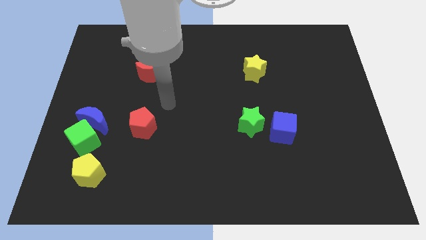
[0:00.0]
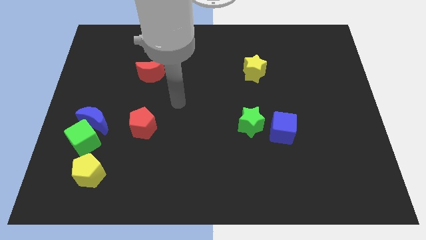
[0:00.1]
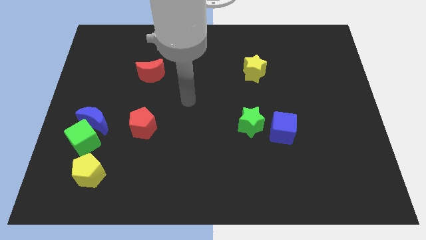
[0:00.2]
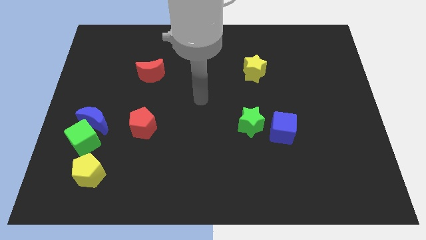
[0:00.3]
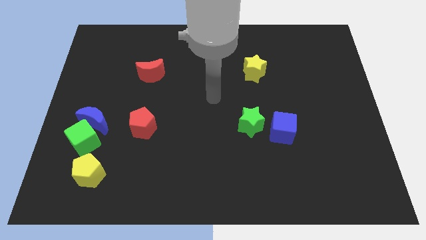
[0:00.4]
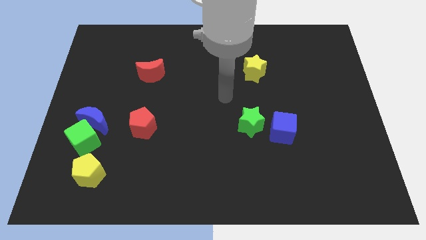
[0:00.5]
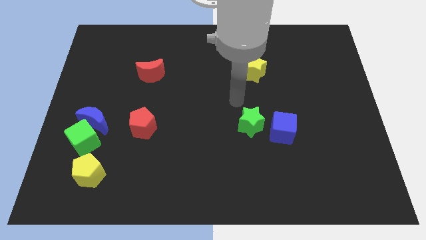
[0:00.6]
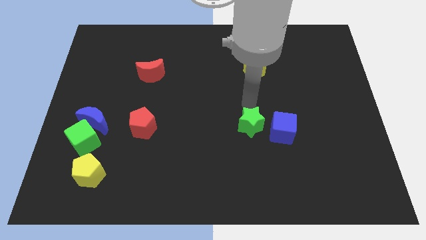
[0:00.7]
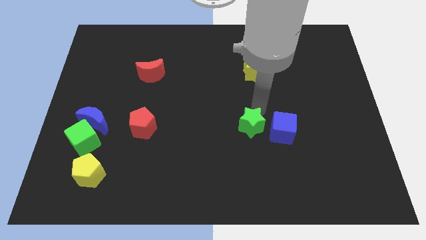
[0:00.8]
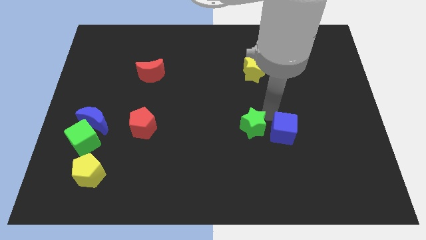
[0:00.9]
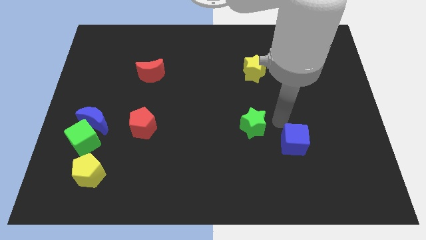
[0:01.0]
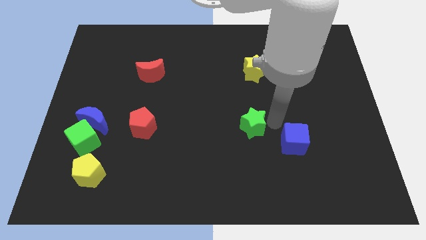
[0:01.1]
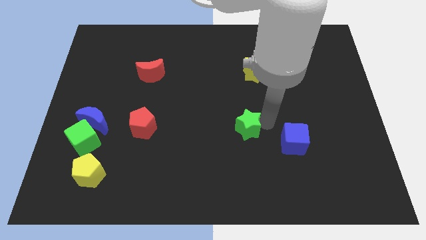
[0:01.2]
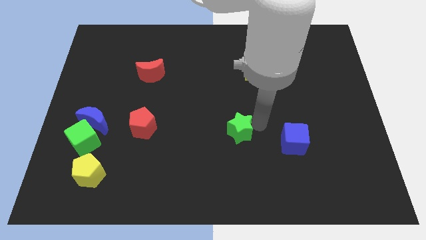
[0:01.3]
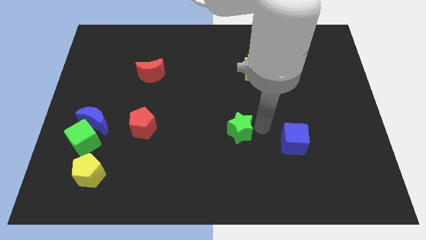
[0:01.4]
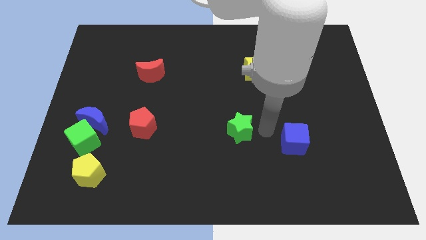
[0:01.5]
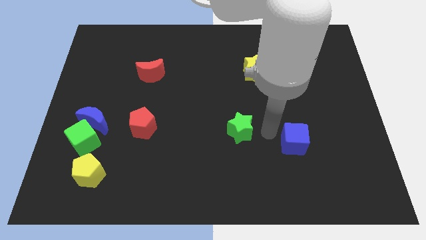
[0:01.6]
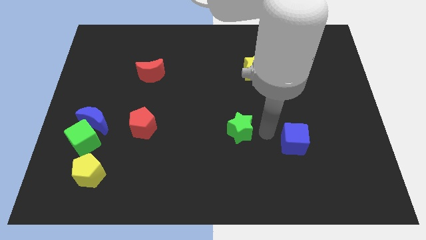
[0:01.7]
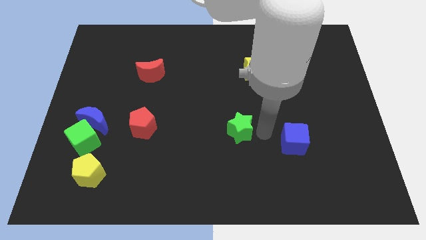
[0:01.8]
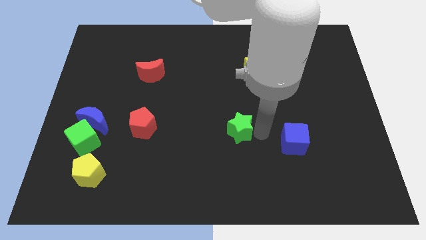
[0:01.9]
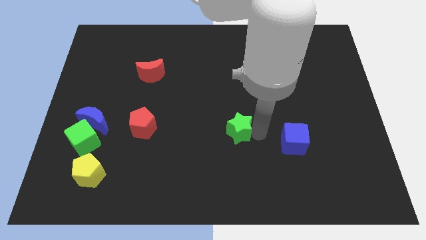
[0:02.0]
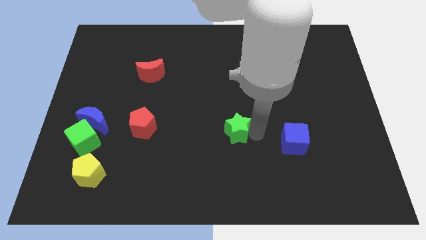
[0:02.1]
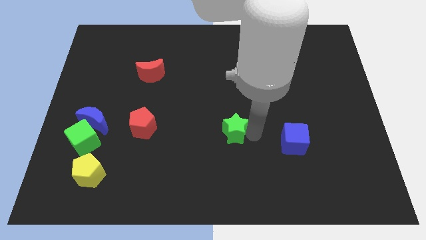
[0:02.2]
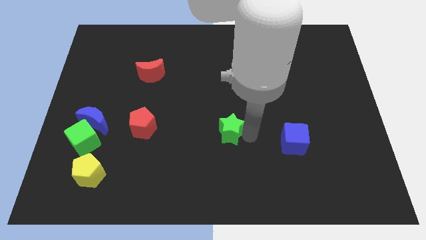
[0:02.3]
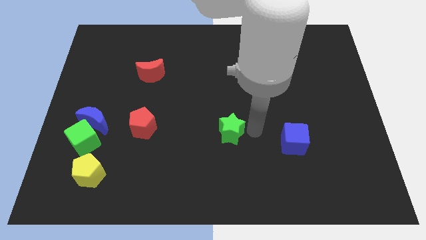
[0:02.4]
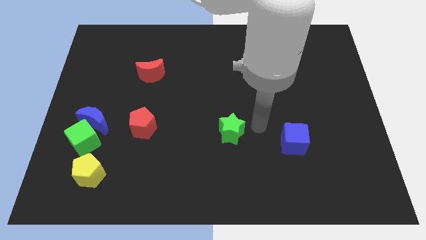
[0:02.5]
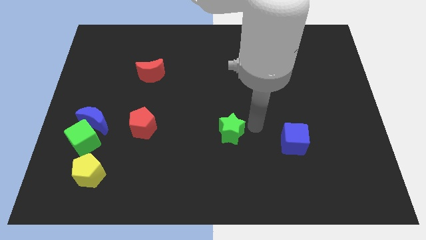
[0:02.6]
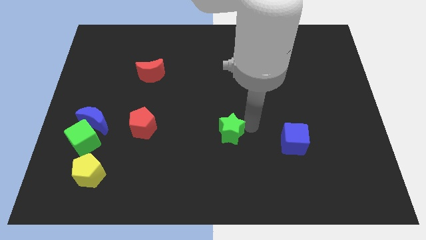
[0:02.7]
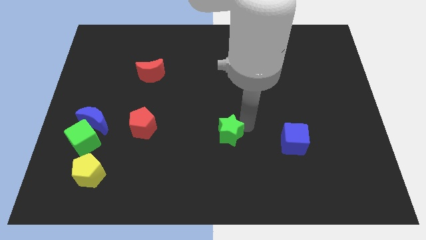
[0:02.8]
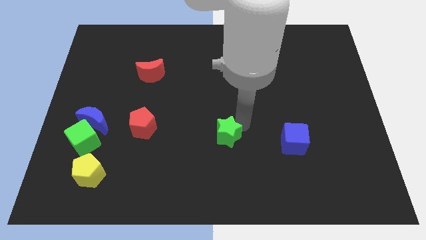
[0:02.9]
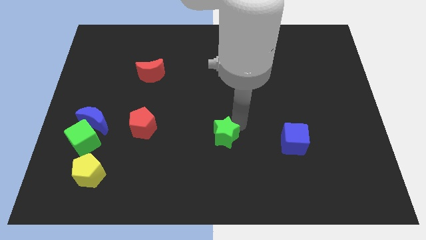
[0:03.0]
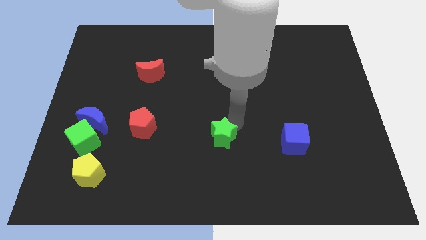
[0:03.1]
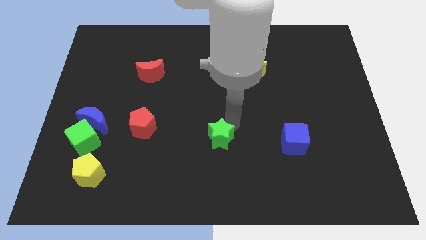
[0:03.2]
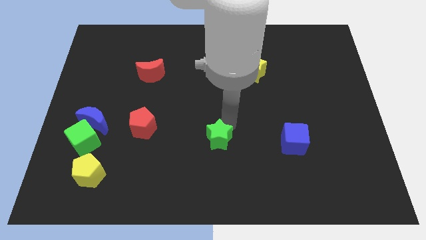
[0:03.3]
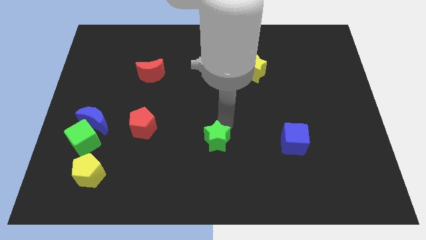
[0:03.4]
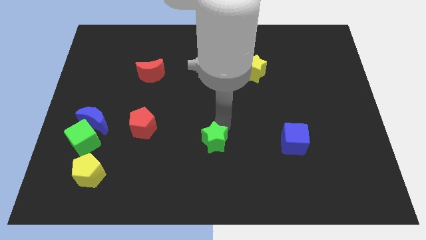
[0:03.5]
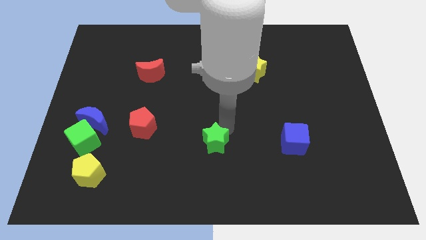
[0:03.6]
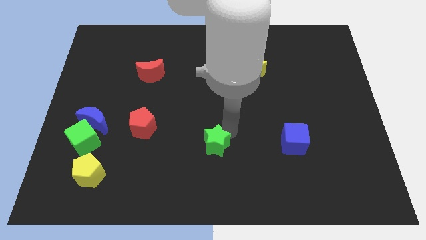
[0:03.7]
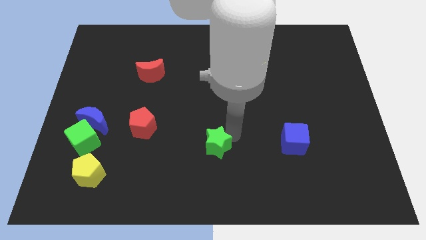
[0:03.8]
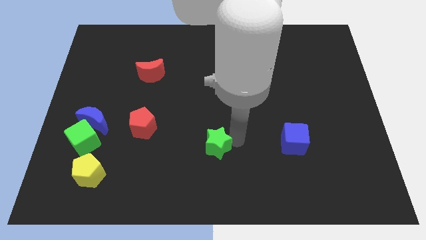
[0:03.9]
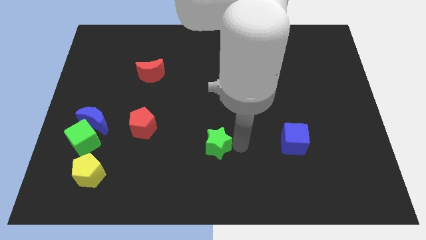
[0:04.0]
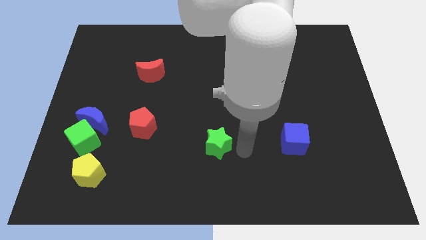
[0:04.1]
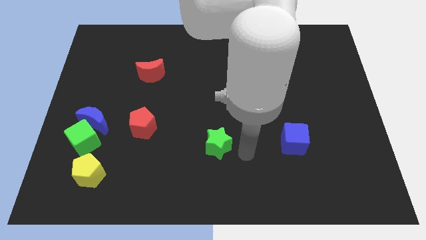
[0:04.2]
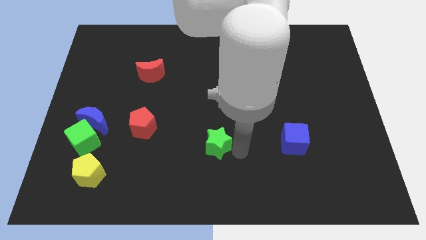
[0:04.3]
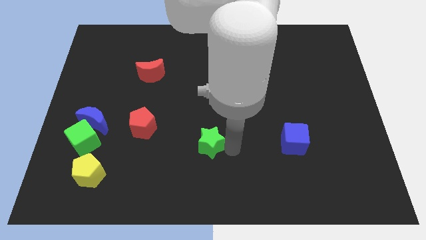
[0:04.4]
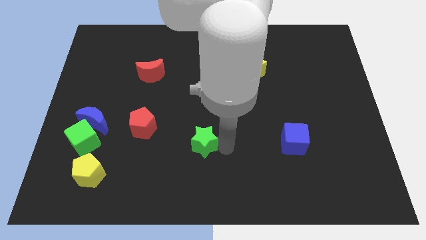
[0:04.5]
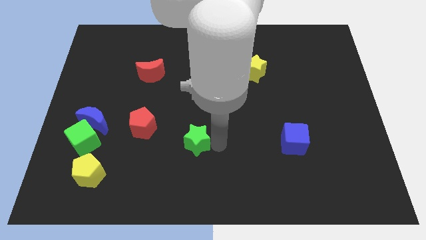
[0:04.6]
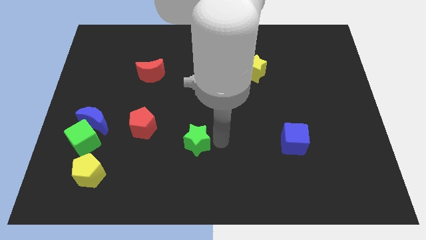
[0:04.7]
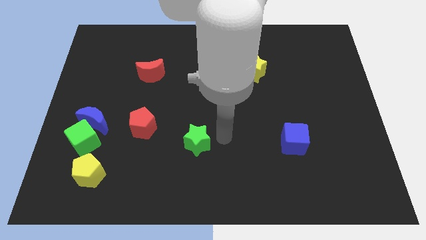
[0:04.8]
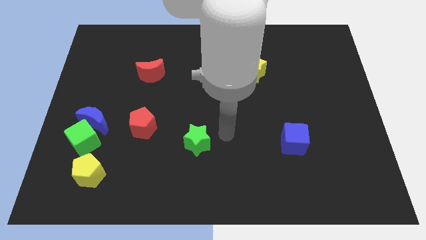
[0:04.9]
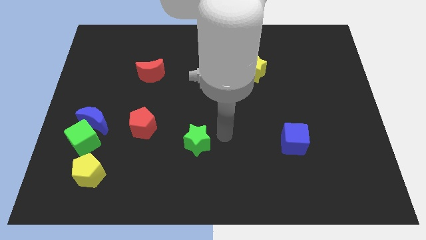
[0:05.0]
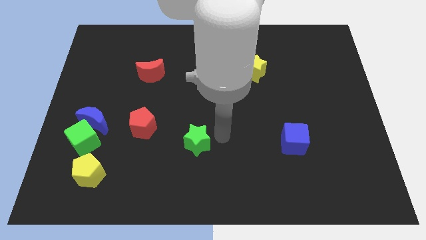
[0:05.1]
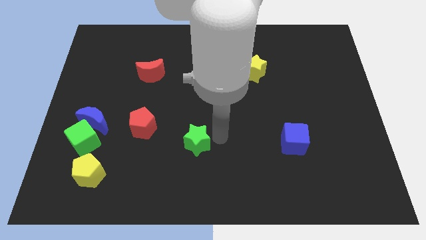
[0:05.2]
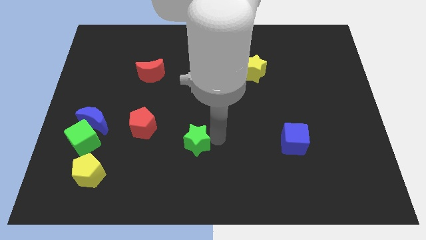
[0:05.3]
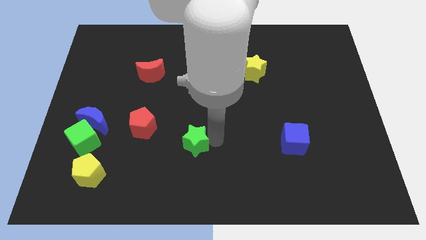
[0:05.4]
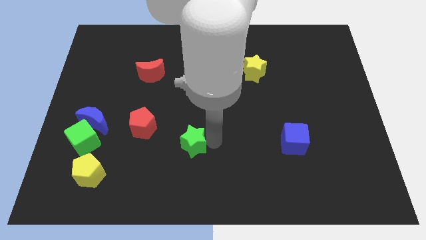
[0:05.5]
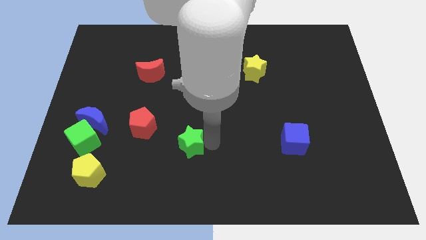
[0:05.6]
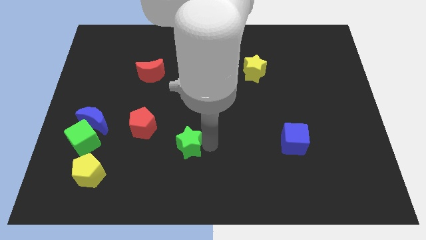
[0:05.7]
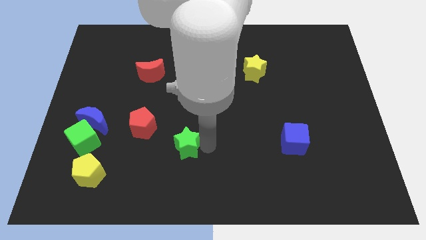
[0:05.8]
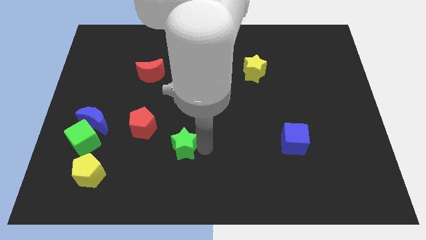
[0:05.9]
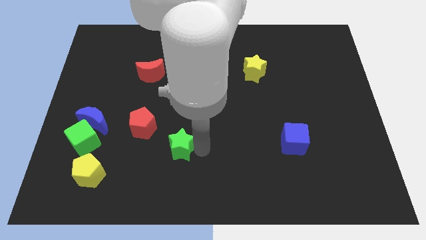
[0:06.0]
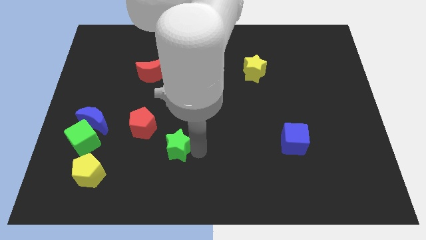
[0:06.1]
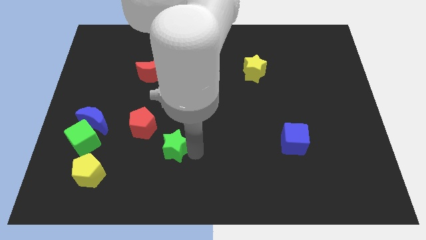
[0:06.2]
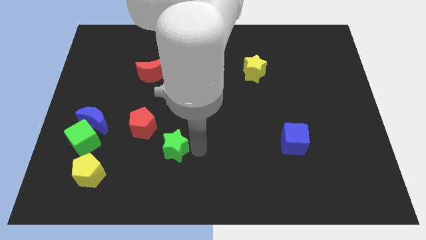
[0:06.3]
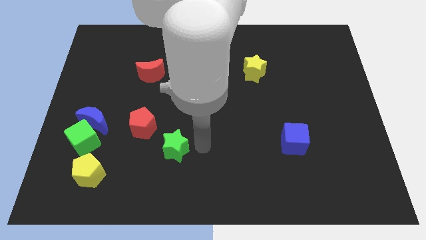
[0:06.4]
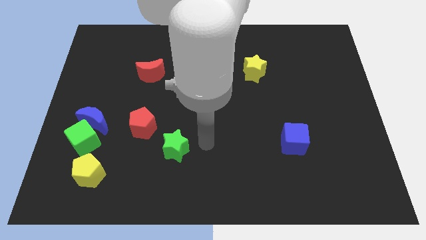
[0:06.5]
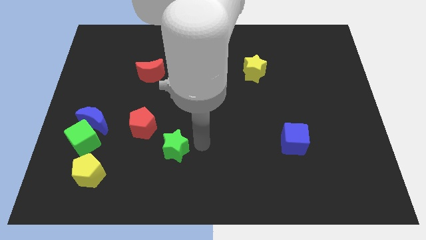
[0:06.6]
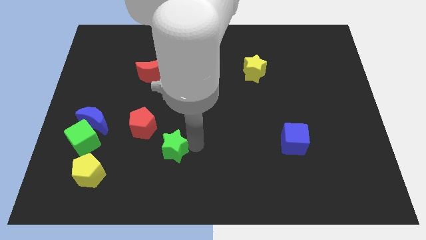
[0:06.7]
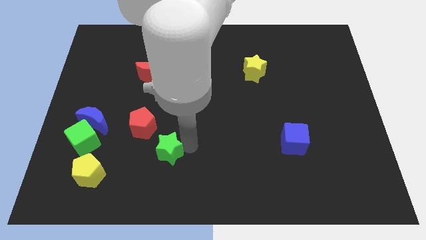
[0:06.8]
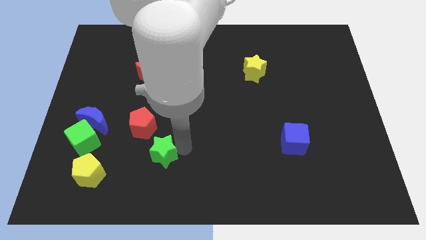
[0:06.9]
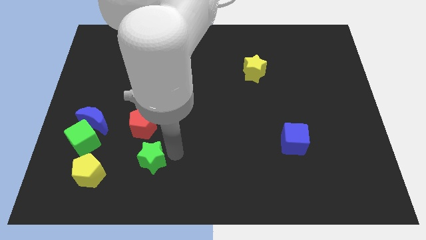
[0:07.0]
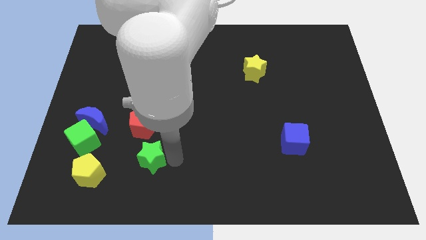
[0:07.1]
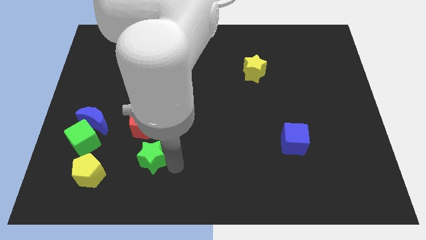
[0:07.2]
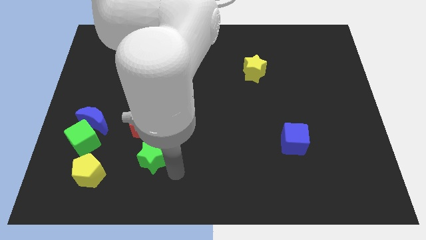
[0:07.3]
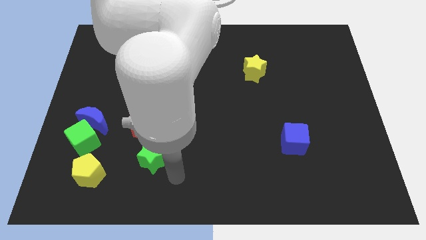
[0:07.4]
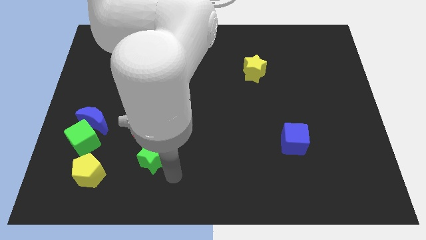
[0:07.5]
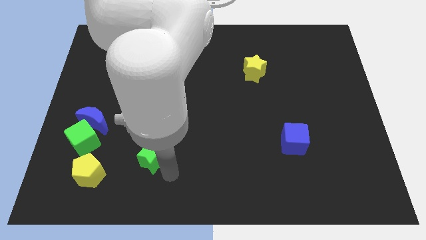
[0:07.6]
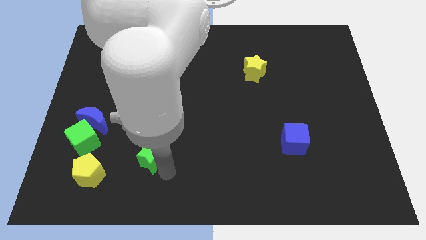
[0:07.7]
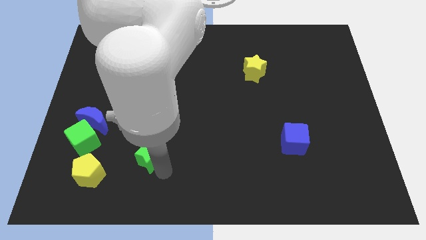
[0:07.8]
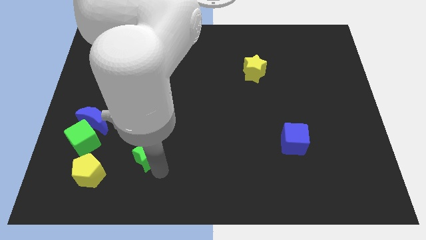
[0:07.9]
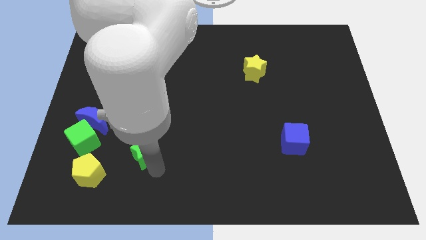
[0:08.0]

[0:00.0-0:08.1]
put the green star just right of the green cube
